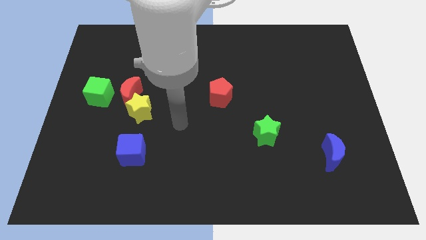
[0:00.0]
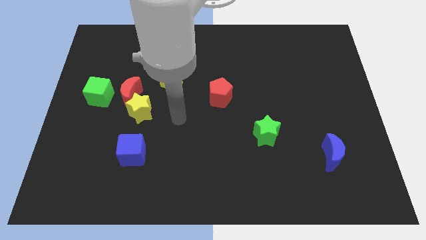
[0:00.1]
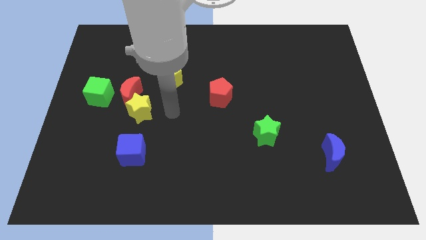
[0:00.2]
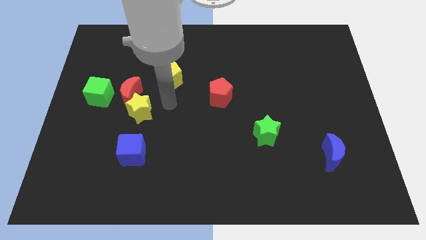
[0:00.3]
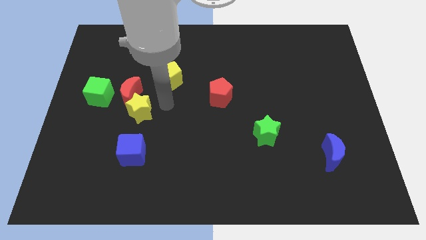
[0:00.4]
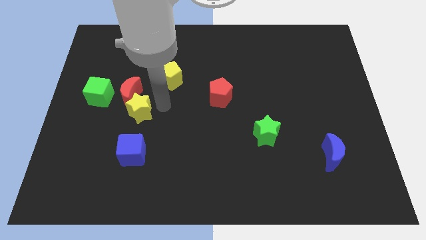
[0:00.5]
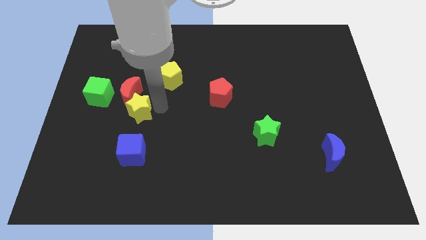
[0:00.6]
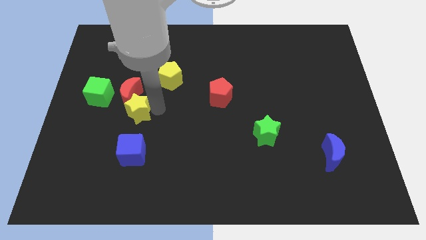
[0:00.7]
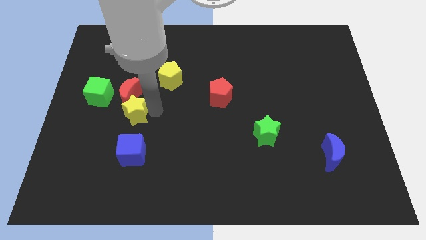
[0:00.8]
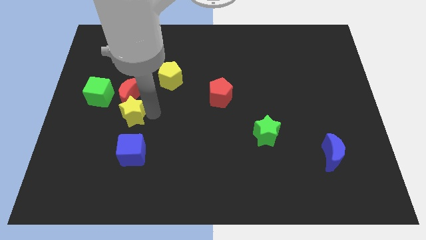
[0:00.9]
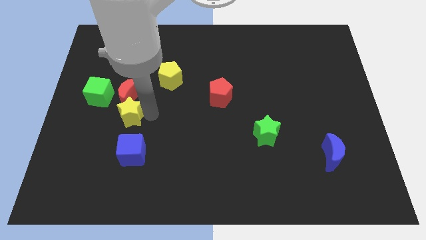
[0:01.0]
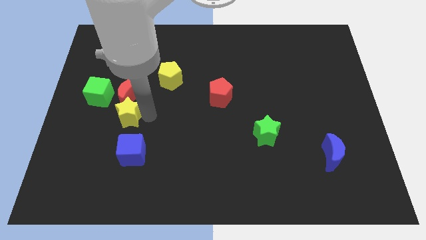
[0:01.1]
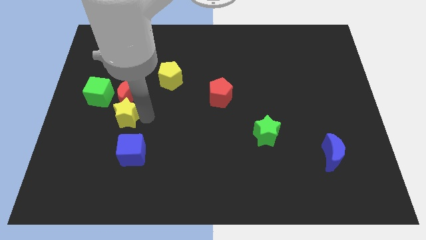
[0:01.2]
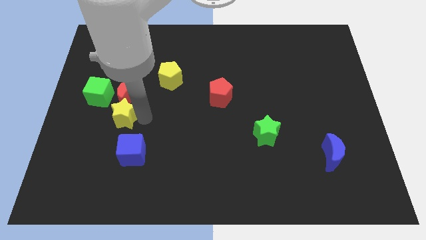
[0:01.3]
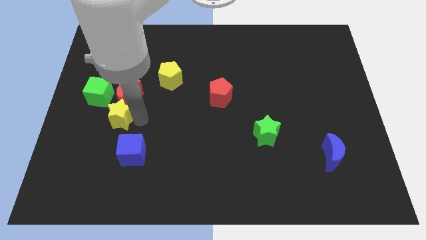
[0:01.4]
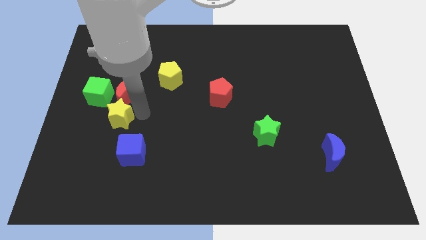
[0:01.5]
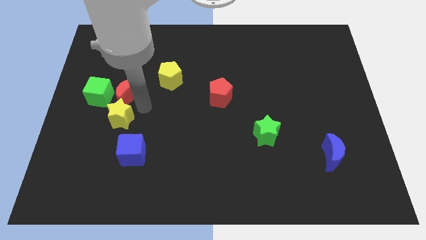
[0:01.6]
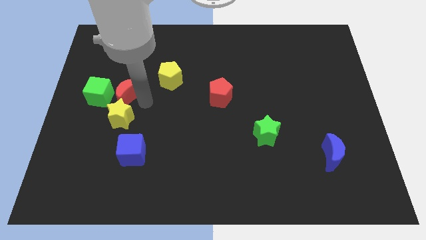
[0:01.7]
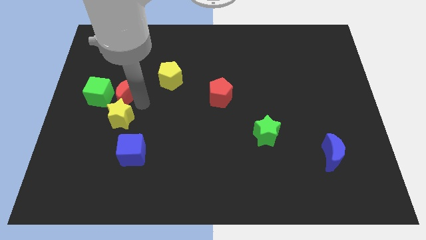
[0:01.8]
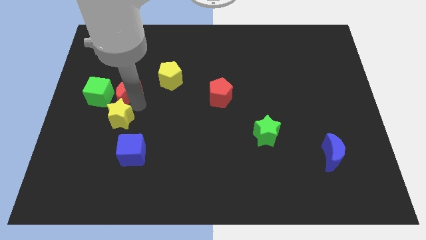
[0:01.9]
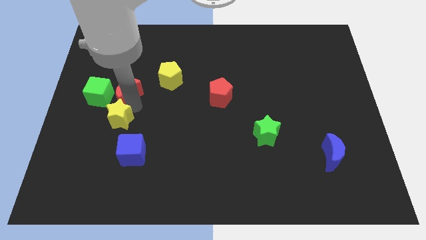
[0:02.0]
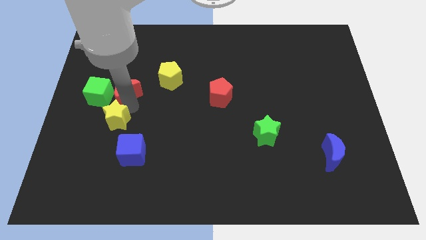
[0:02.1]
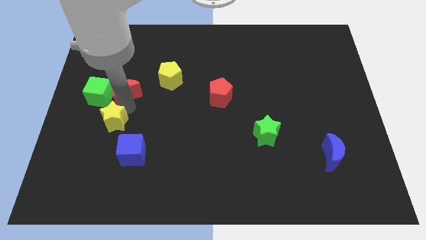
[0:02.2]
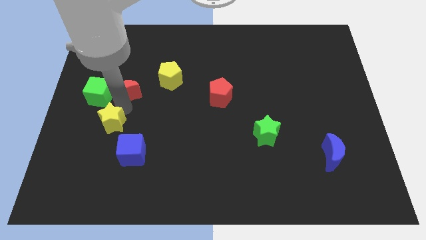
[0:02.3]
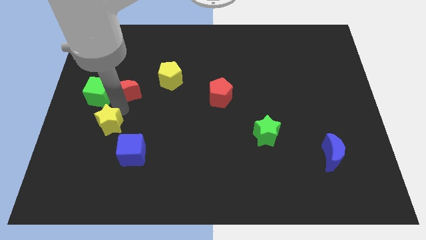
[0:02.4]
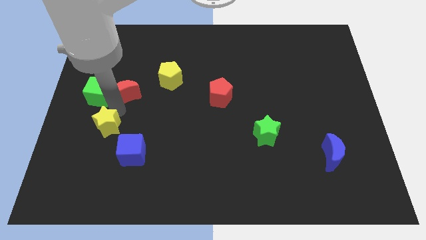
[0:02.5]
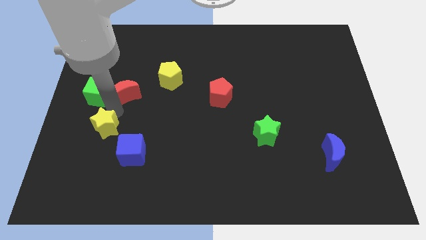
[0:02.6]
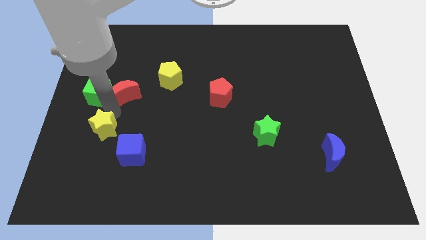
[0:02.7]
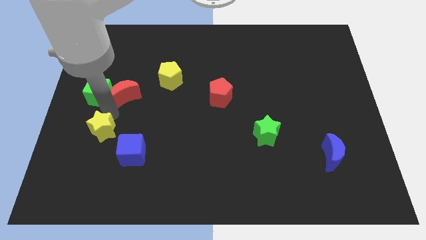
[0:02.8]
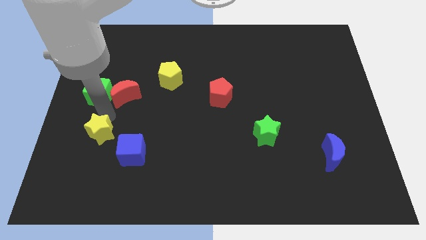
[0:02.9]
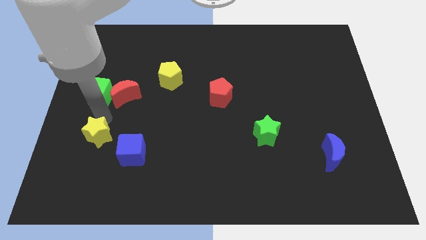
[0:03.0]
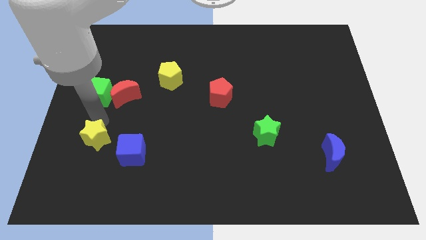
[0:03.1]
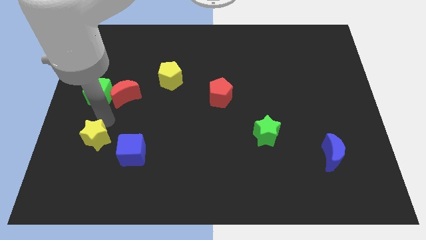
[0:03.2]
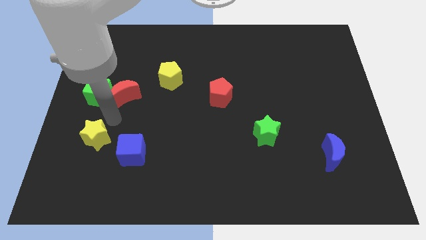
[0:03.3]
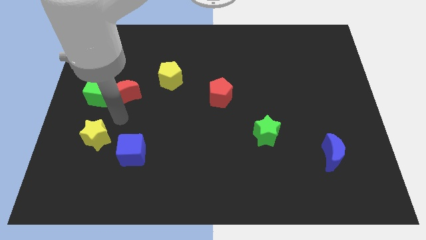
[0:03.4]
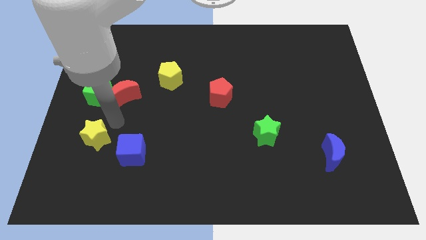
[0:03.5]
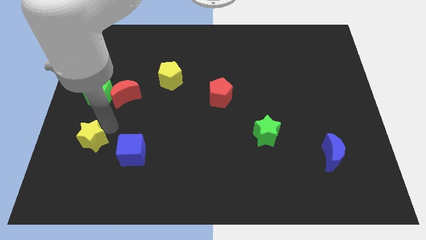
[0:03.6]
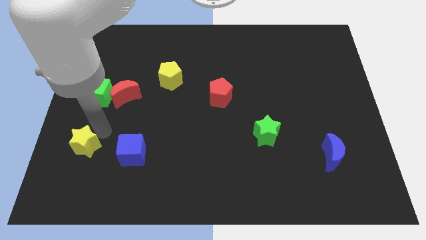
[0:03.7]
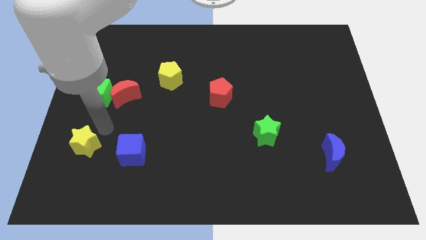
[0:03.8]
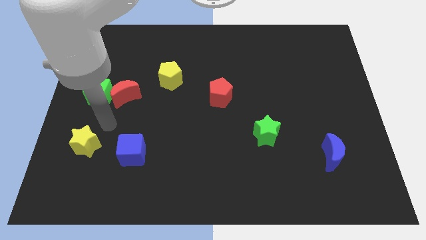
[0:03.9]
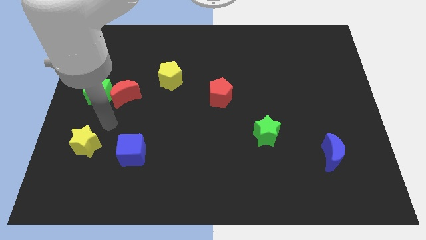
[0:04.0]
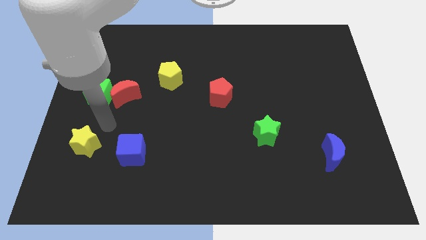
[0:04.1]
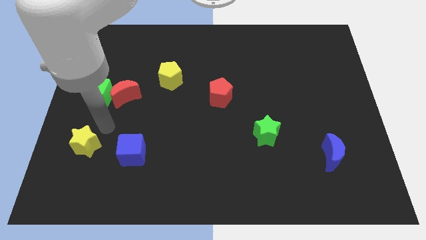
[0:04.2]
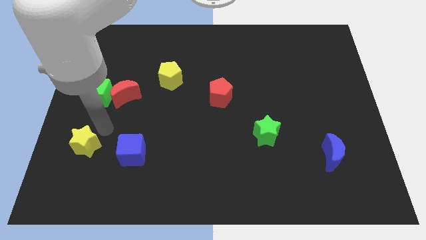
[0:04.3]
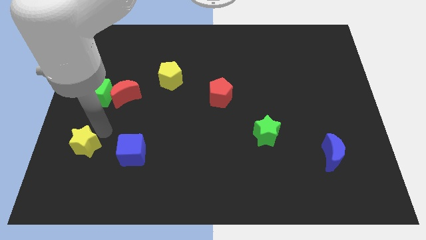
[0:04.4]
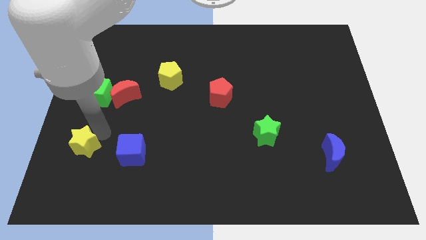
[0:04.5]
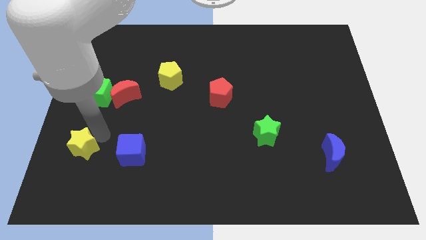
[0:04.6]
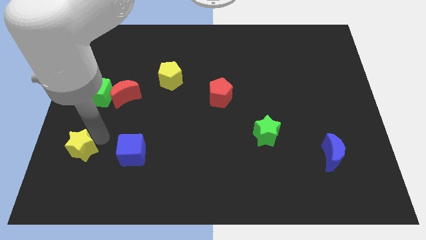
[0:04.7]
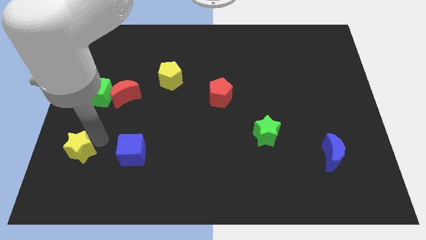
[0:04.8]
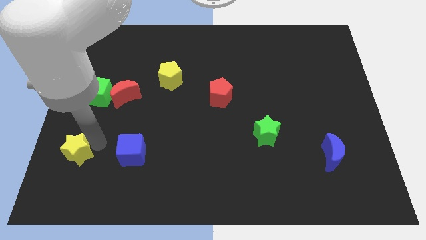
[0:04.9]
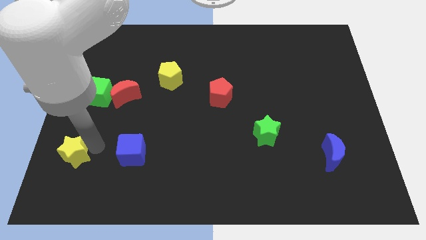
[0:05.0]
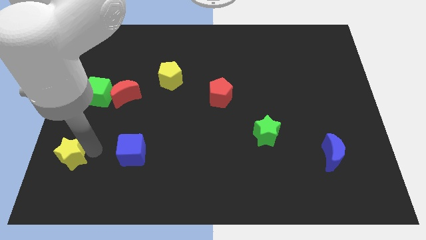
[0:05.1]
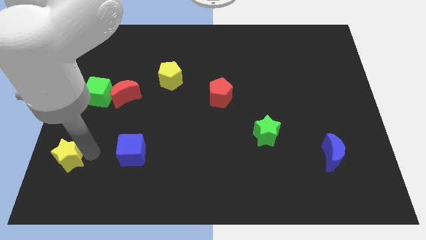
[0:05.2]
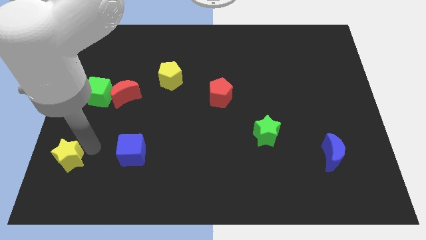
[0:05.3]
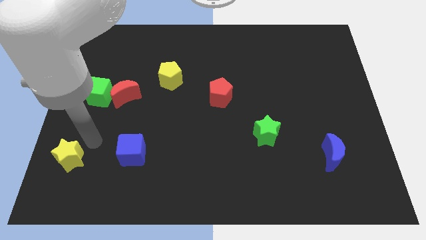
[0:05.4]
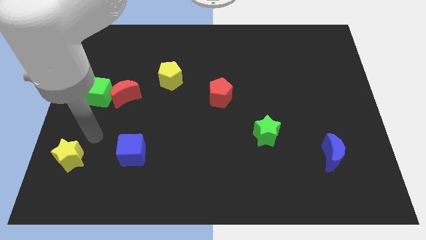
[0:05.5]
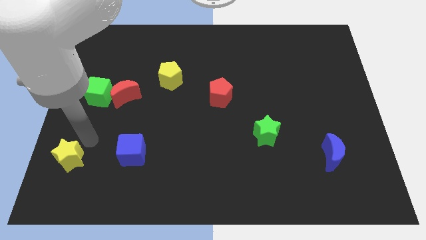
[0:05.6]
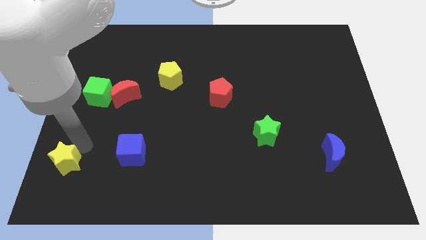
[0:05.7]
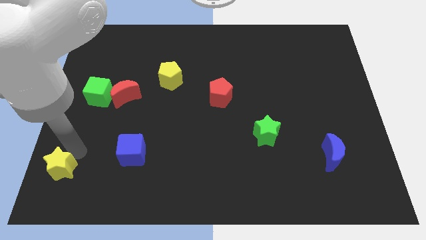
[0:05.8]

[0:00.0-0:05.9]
slide the yellow star to the bottom left

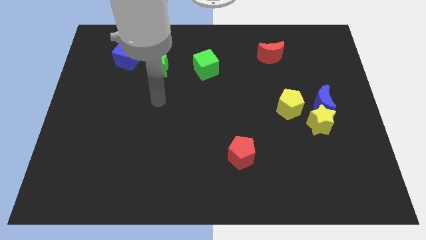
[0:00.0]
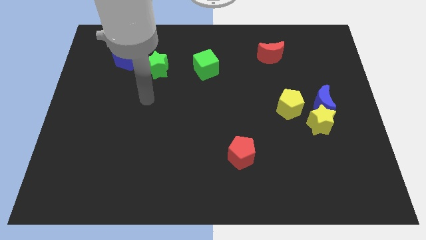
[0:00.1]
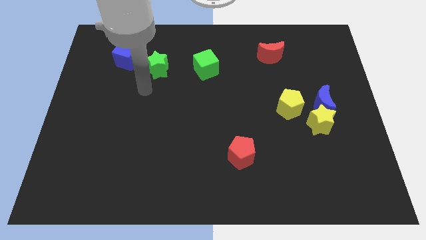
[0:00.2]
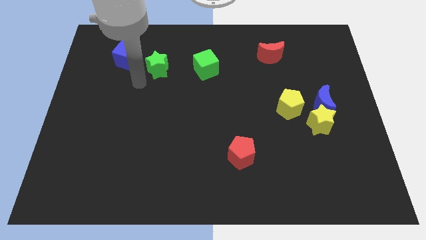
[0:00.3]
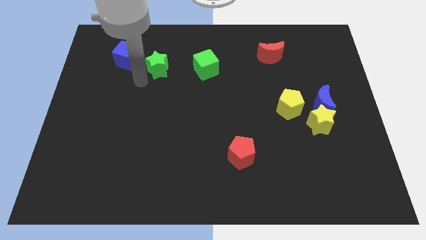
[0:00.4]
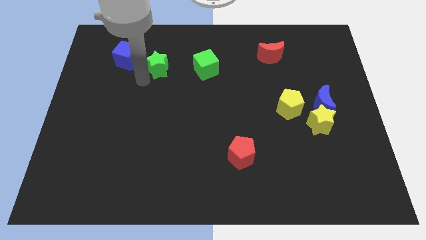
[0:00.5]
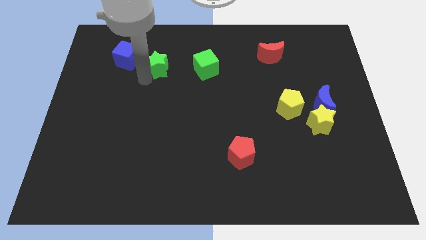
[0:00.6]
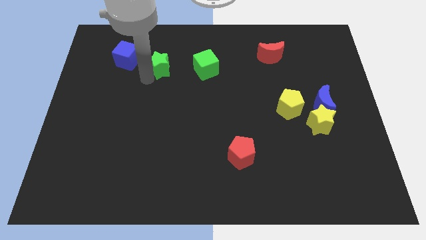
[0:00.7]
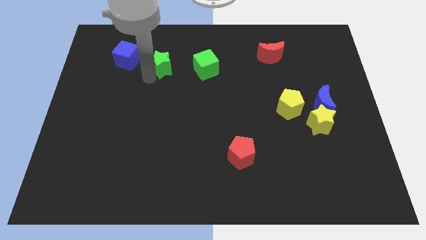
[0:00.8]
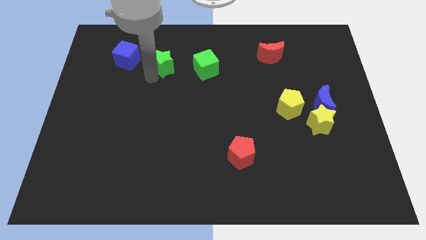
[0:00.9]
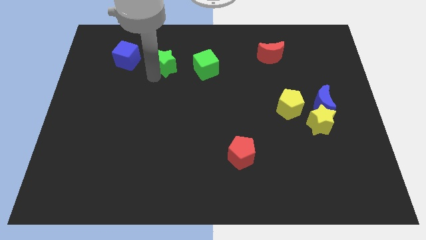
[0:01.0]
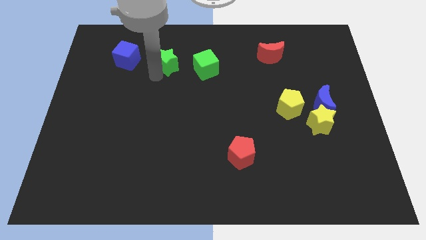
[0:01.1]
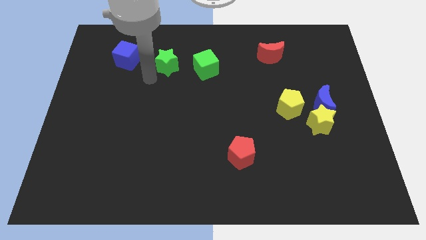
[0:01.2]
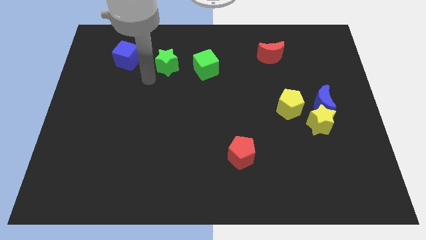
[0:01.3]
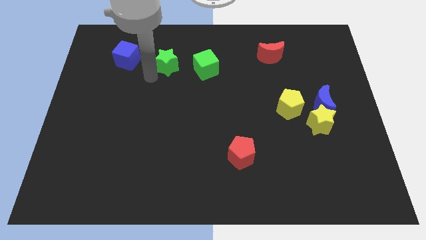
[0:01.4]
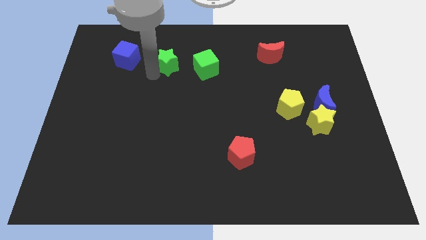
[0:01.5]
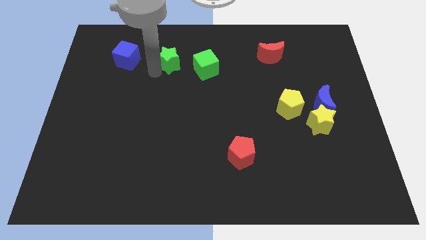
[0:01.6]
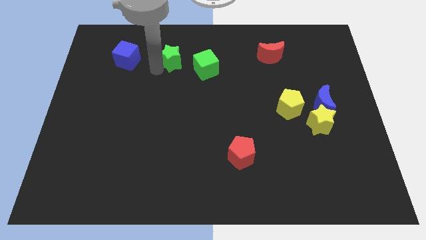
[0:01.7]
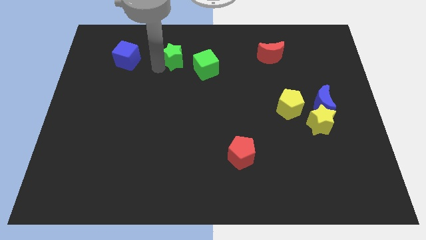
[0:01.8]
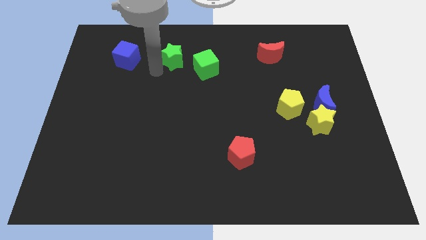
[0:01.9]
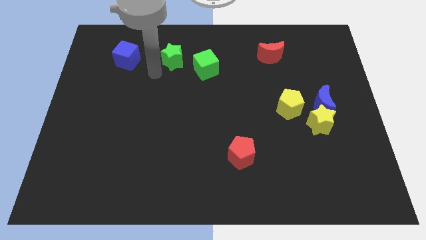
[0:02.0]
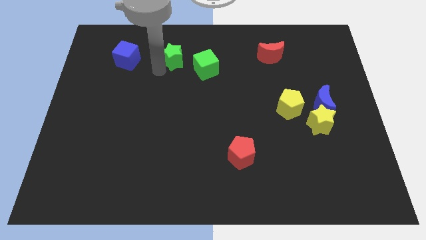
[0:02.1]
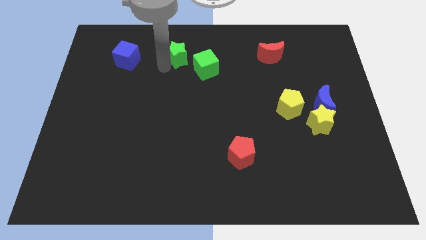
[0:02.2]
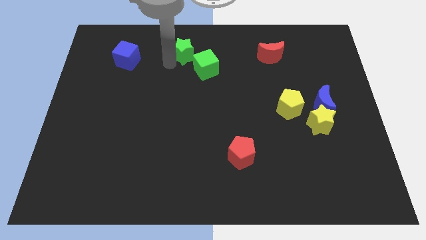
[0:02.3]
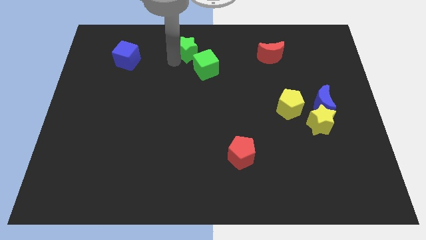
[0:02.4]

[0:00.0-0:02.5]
slide the green star to the towards your base
